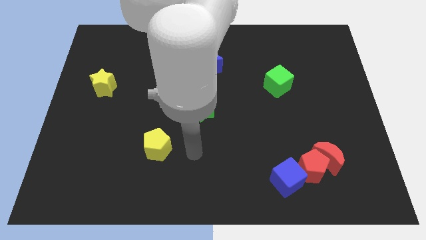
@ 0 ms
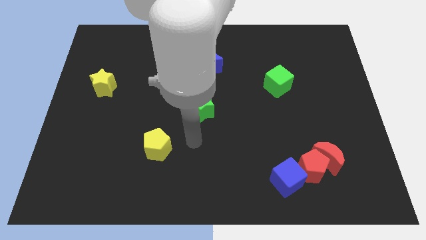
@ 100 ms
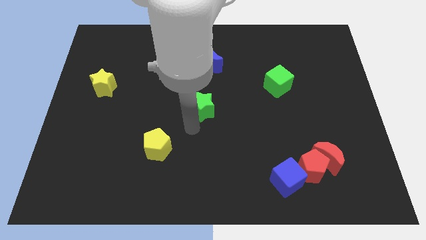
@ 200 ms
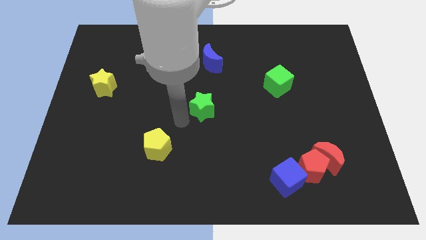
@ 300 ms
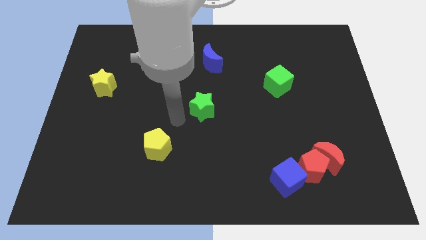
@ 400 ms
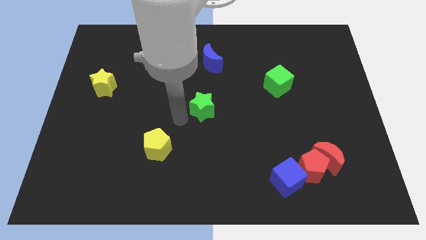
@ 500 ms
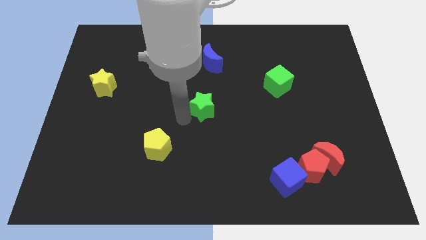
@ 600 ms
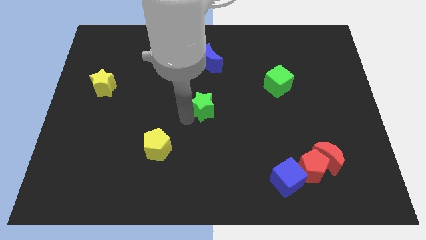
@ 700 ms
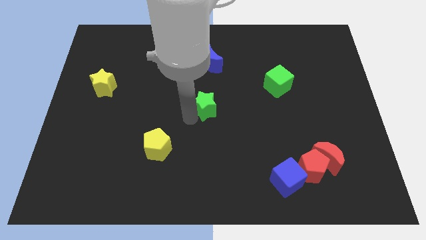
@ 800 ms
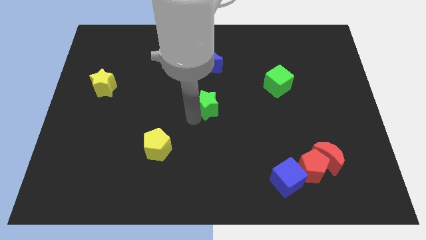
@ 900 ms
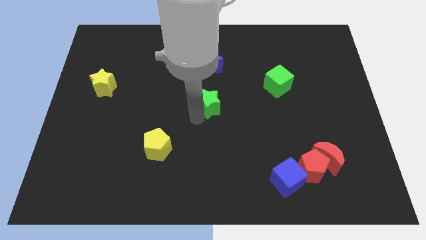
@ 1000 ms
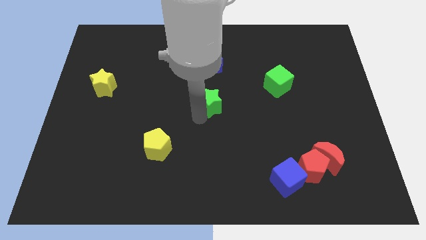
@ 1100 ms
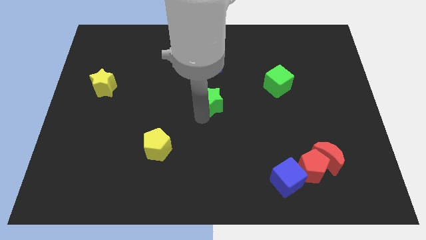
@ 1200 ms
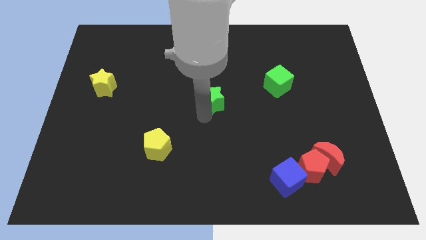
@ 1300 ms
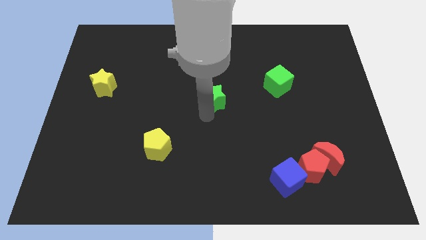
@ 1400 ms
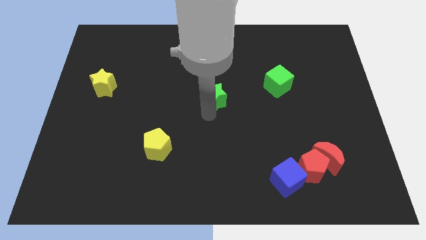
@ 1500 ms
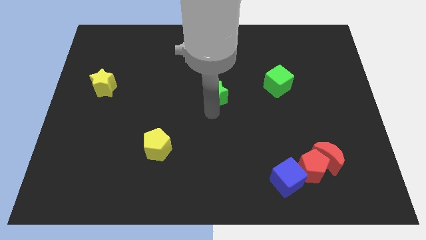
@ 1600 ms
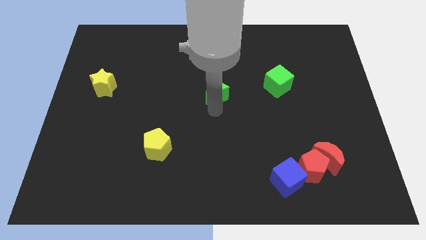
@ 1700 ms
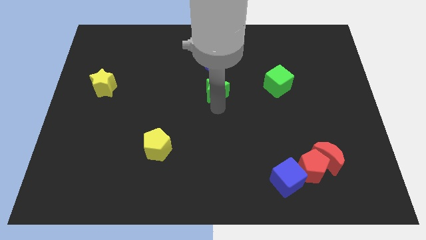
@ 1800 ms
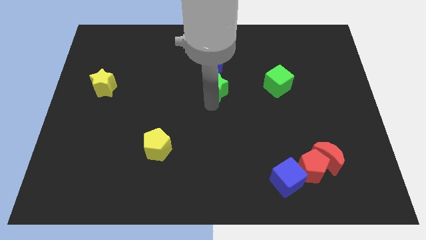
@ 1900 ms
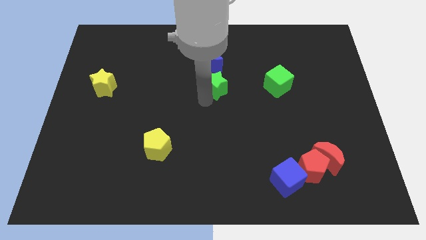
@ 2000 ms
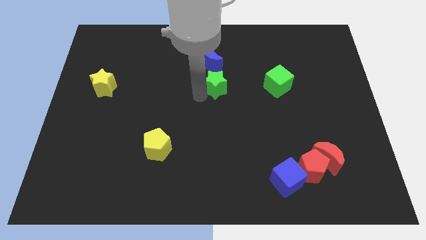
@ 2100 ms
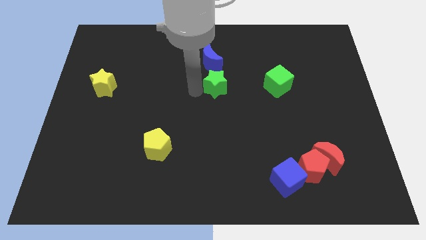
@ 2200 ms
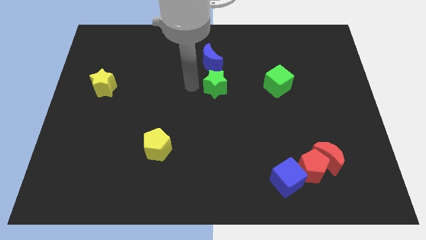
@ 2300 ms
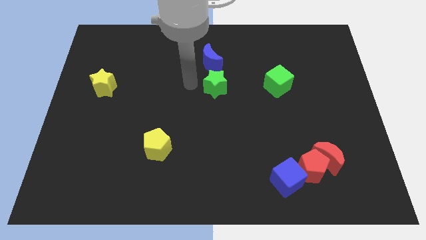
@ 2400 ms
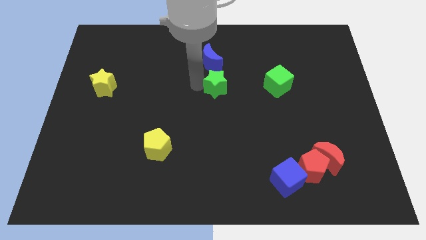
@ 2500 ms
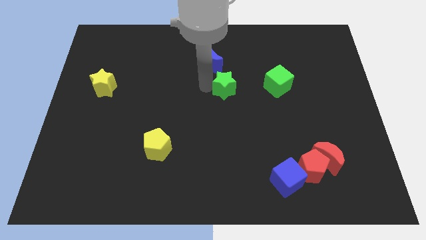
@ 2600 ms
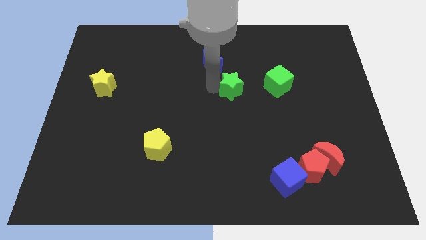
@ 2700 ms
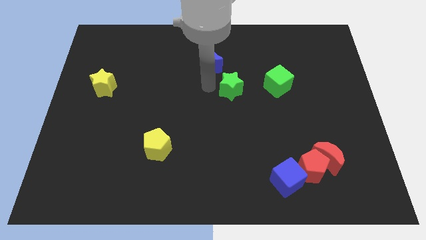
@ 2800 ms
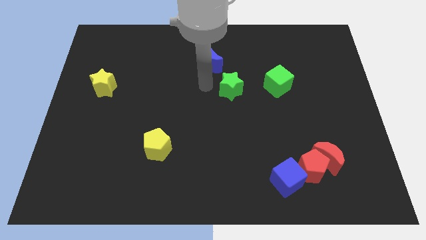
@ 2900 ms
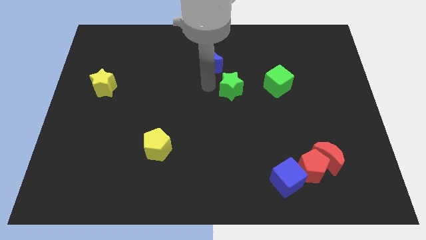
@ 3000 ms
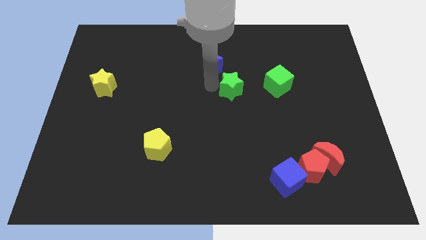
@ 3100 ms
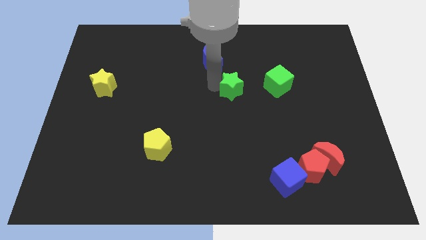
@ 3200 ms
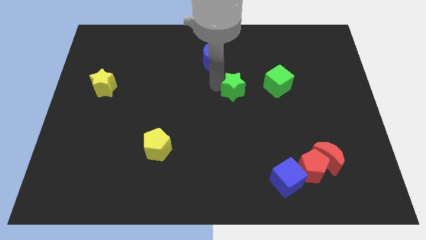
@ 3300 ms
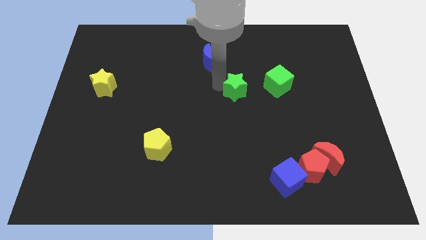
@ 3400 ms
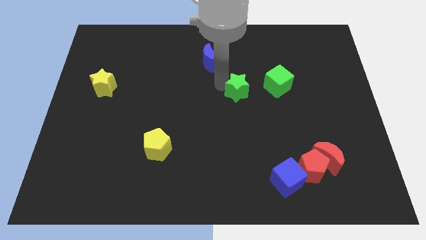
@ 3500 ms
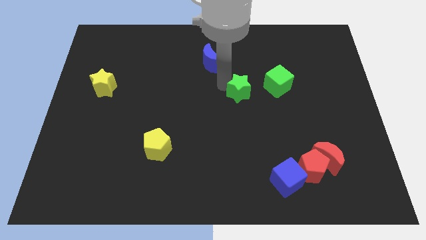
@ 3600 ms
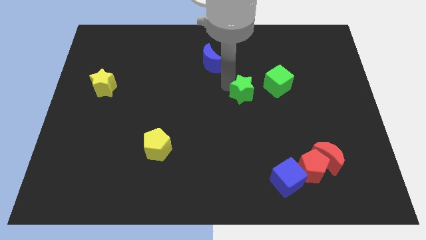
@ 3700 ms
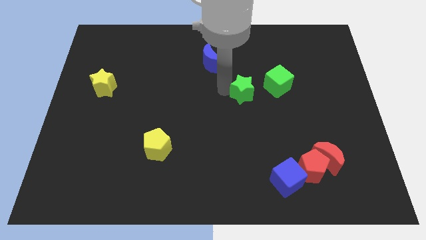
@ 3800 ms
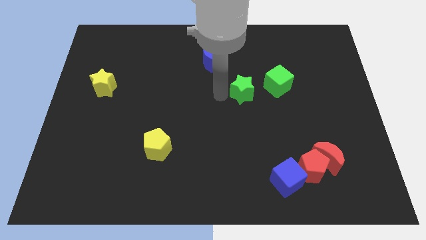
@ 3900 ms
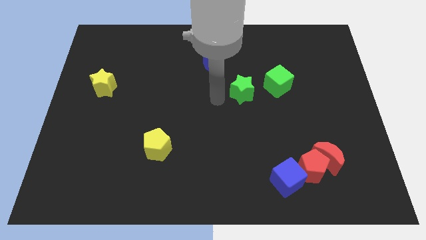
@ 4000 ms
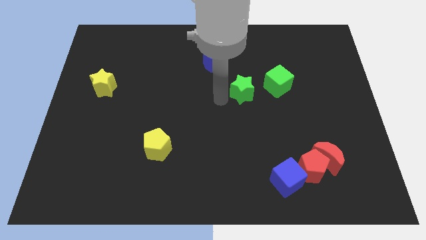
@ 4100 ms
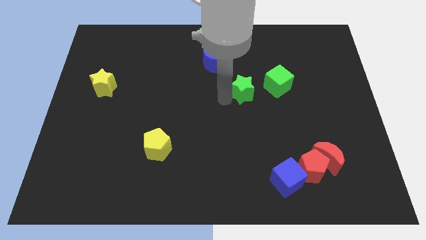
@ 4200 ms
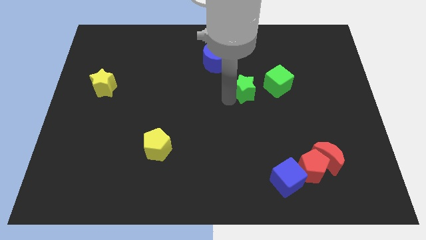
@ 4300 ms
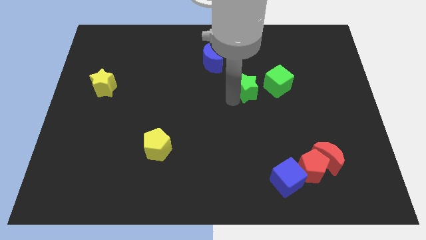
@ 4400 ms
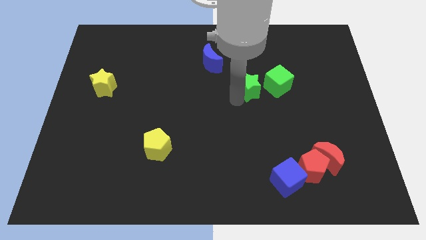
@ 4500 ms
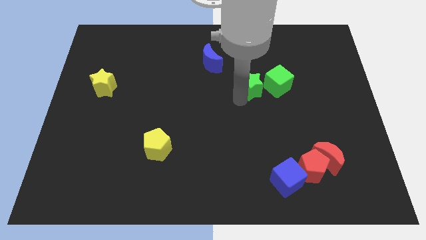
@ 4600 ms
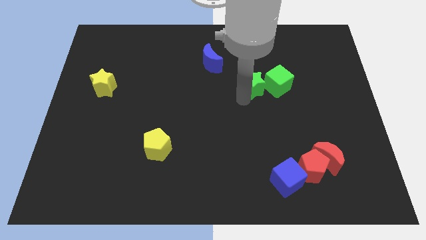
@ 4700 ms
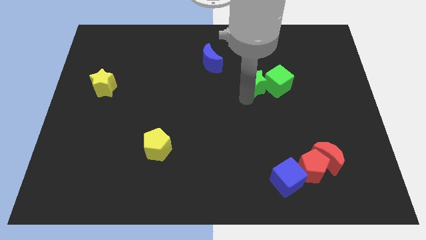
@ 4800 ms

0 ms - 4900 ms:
put the green star towards the green cube

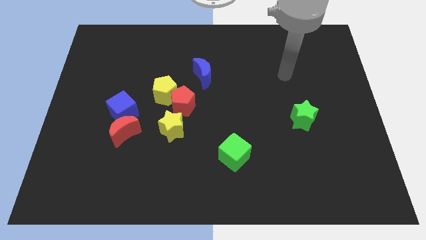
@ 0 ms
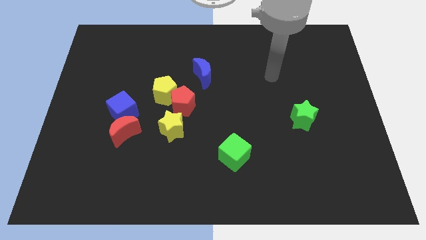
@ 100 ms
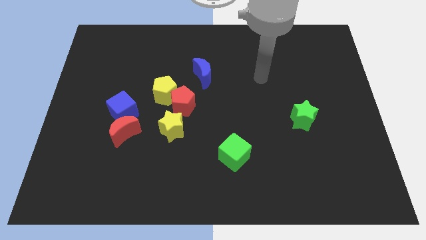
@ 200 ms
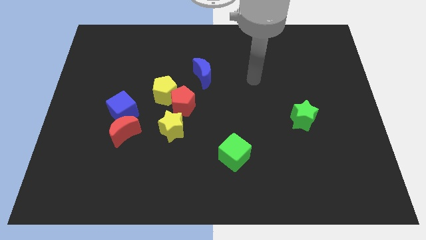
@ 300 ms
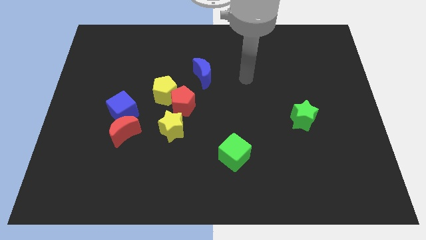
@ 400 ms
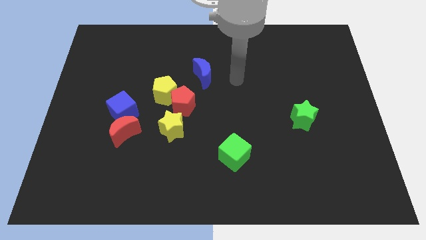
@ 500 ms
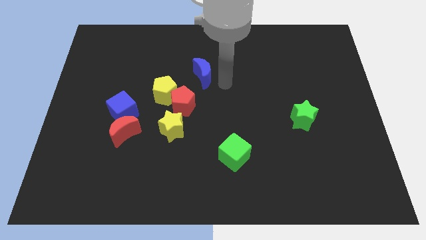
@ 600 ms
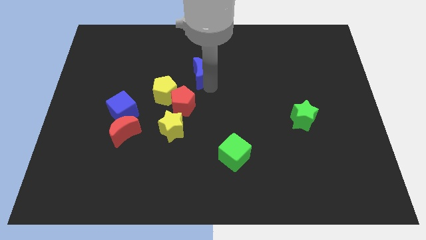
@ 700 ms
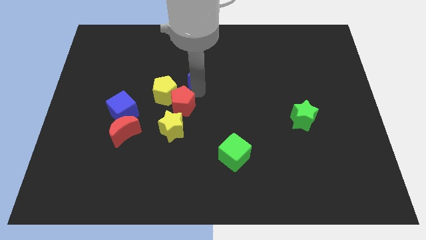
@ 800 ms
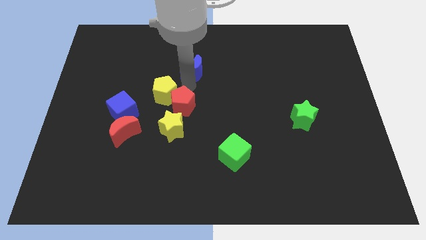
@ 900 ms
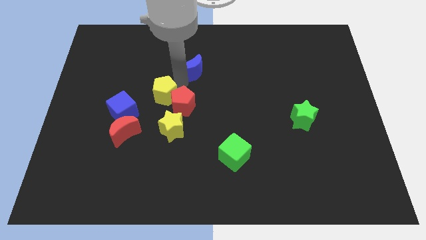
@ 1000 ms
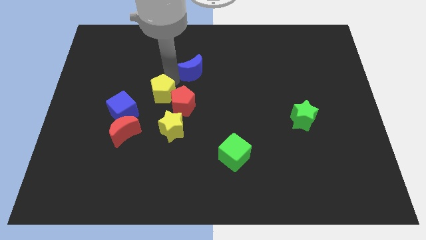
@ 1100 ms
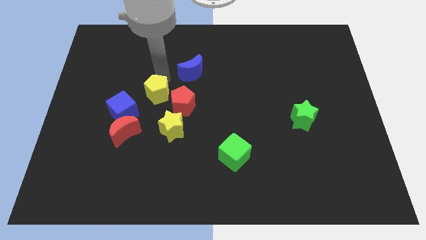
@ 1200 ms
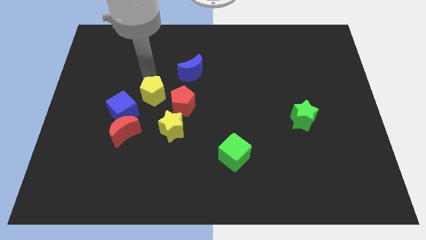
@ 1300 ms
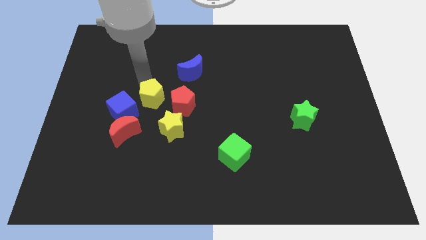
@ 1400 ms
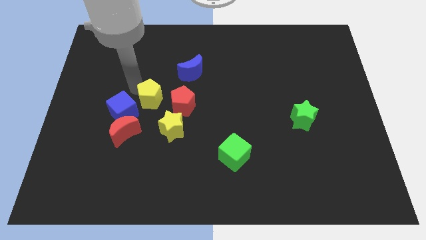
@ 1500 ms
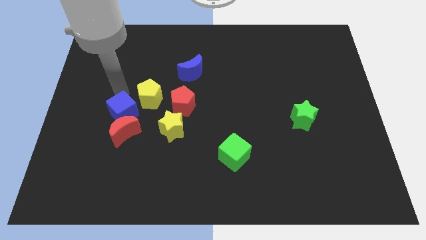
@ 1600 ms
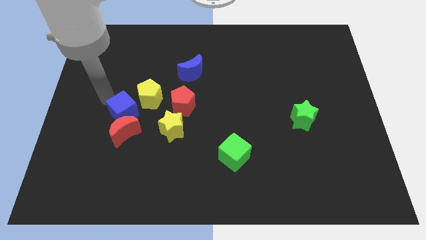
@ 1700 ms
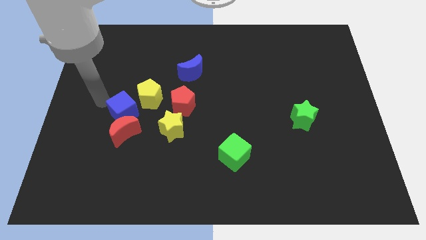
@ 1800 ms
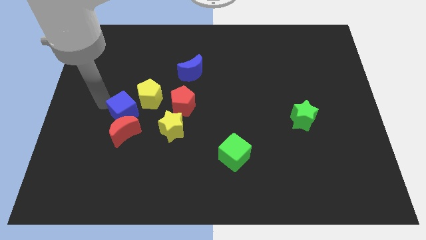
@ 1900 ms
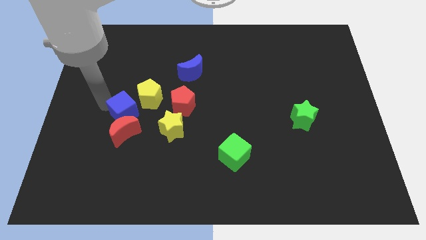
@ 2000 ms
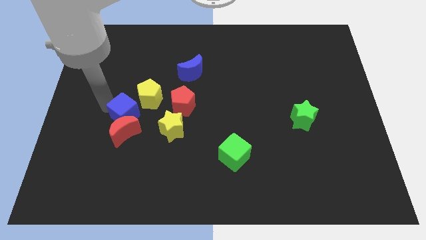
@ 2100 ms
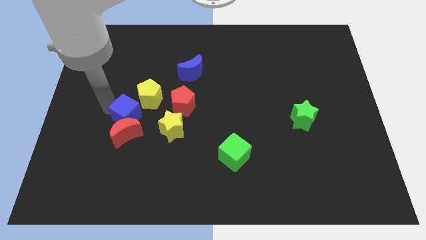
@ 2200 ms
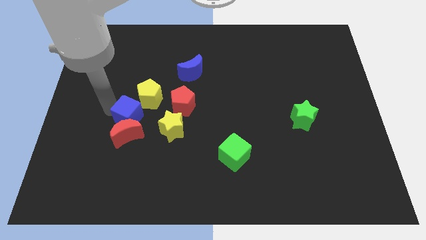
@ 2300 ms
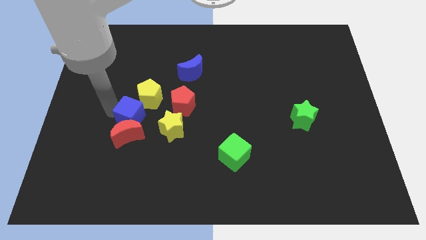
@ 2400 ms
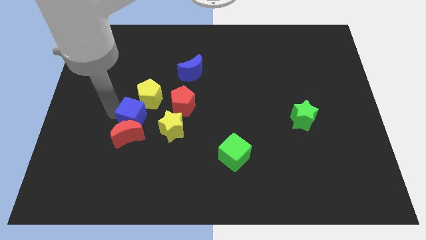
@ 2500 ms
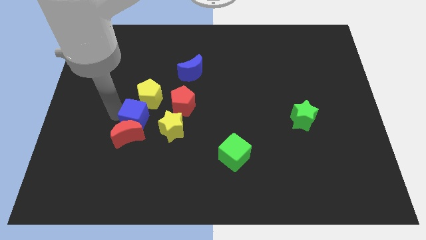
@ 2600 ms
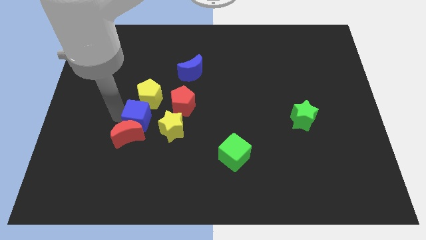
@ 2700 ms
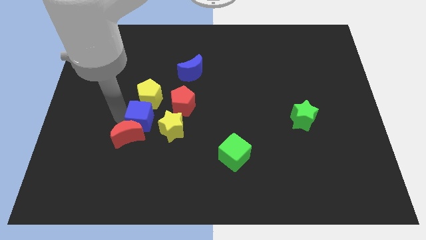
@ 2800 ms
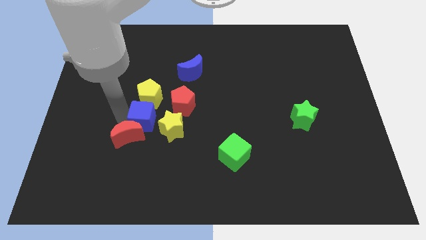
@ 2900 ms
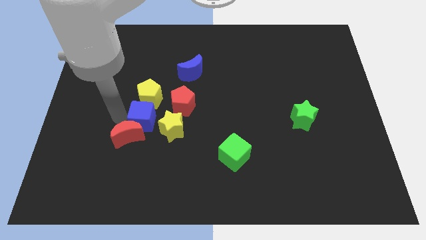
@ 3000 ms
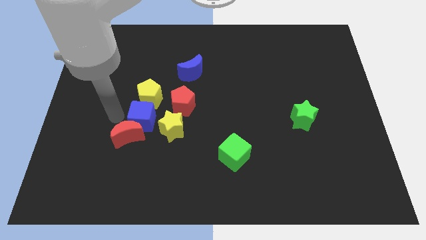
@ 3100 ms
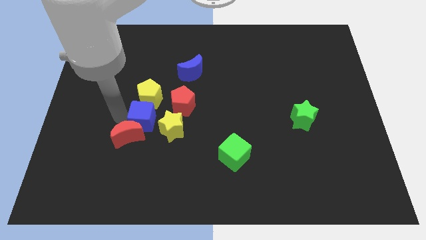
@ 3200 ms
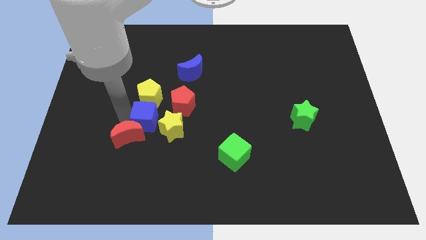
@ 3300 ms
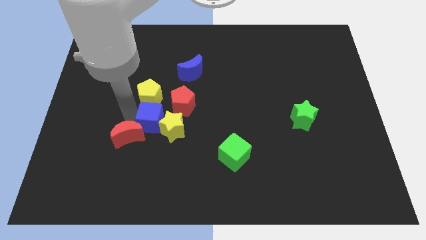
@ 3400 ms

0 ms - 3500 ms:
push the blue cube to the yellow star
